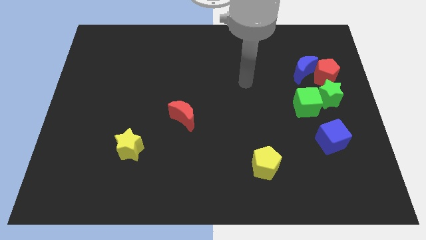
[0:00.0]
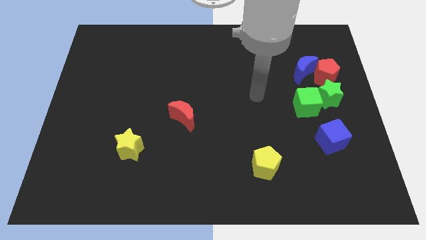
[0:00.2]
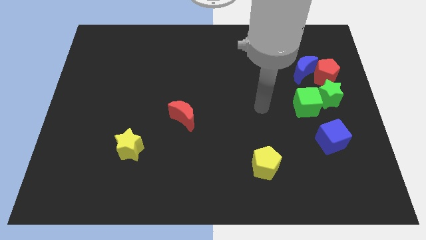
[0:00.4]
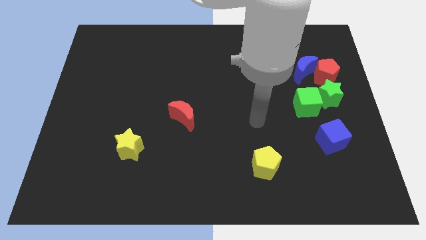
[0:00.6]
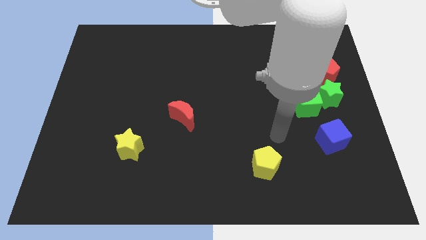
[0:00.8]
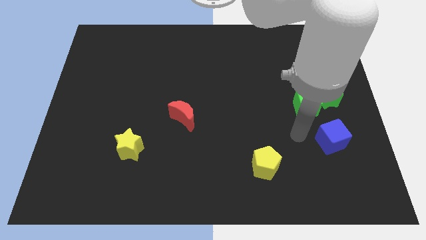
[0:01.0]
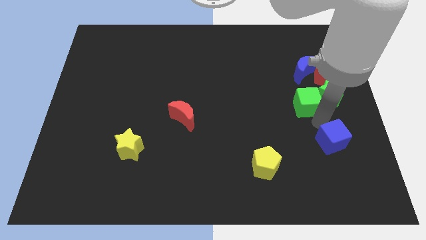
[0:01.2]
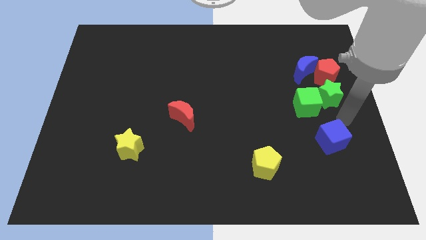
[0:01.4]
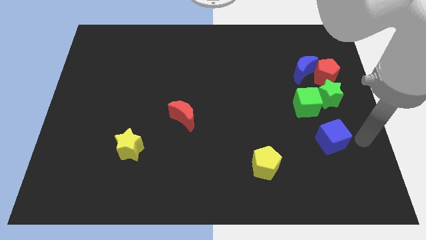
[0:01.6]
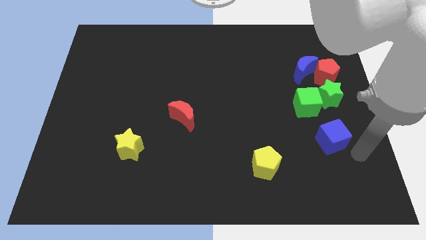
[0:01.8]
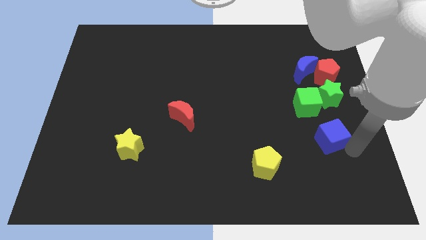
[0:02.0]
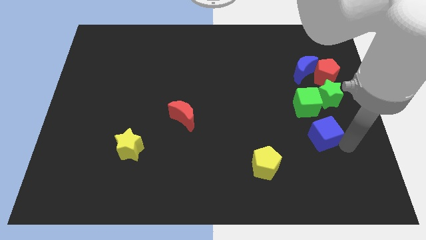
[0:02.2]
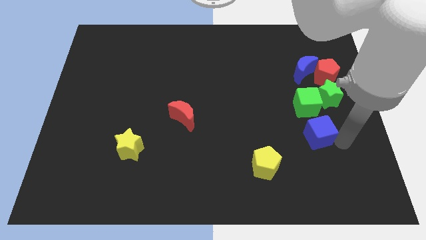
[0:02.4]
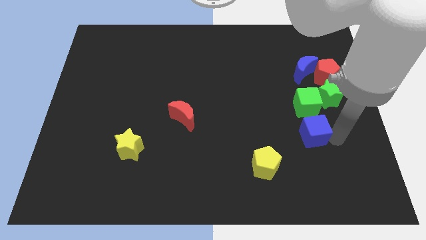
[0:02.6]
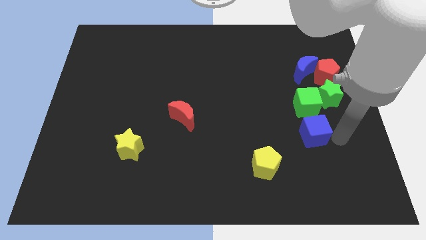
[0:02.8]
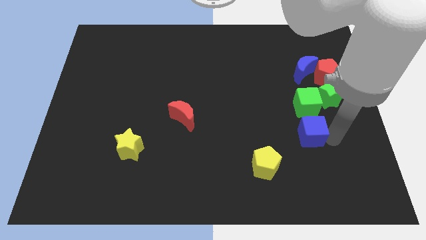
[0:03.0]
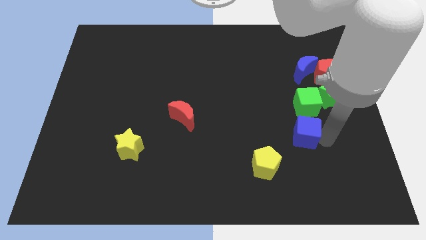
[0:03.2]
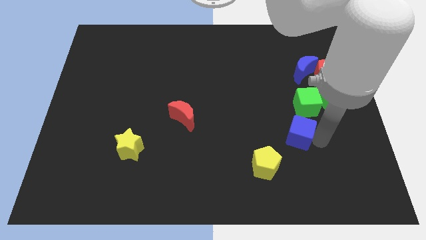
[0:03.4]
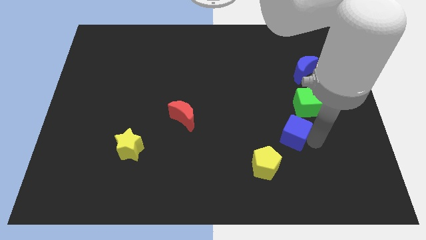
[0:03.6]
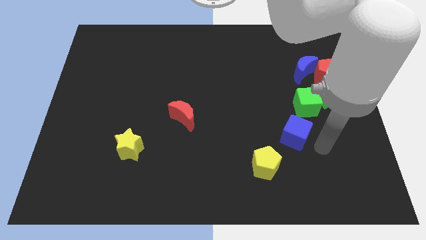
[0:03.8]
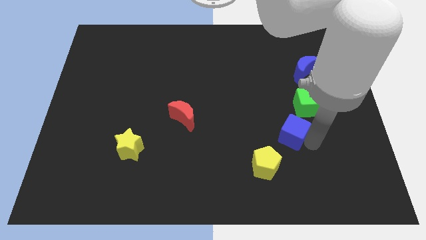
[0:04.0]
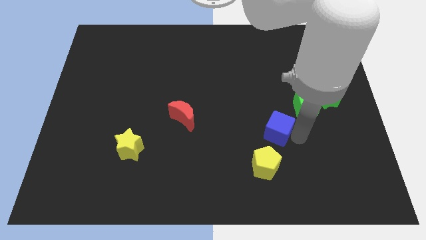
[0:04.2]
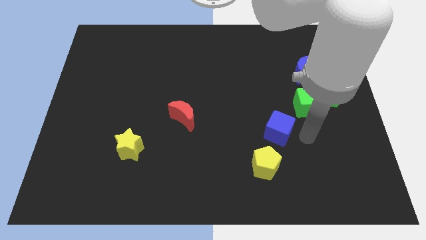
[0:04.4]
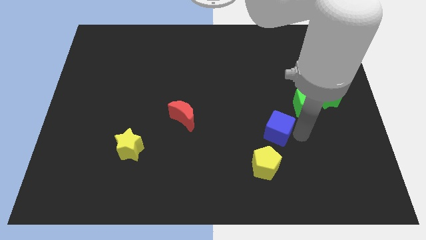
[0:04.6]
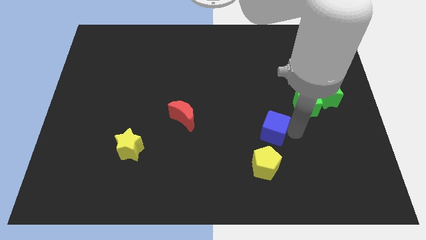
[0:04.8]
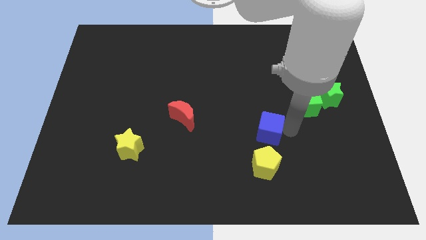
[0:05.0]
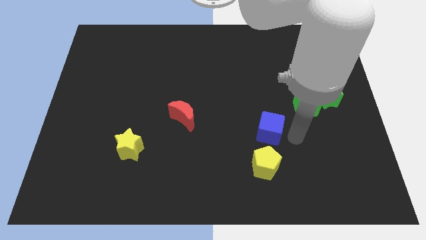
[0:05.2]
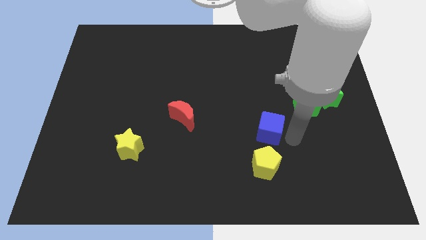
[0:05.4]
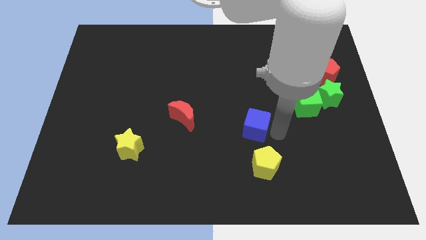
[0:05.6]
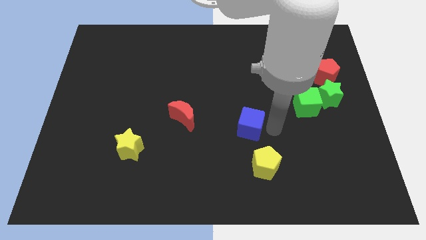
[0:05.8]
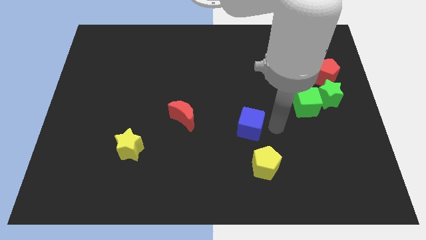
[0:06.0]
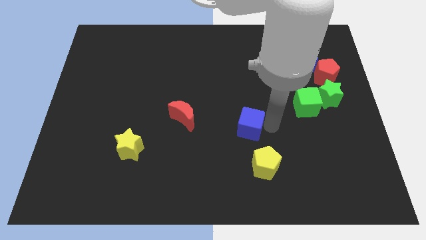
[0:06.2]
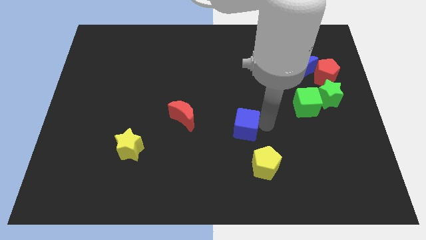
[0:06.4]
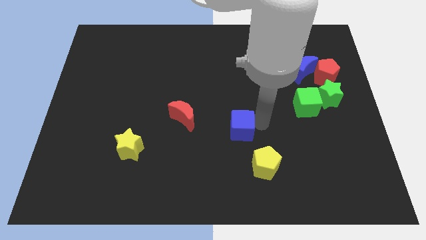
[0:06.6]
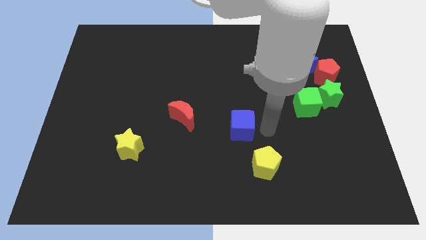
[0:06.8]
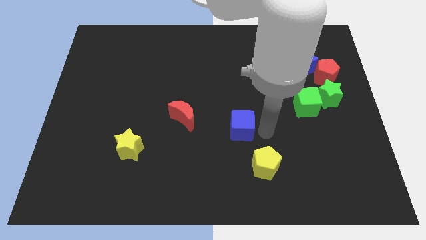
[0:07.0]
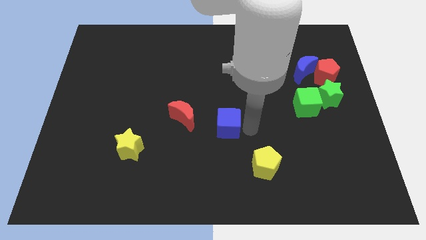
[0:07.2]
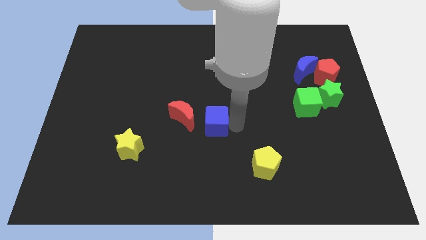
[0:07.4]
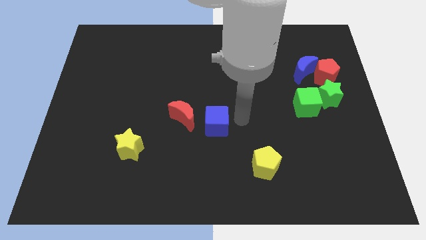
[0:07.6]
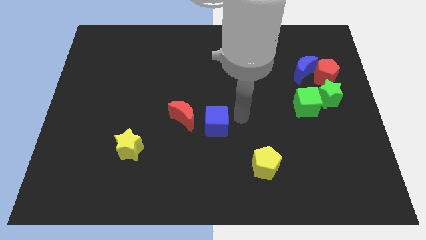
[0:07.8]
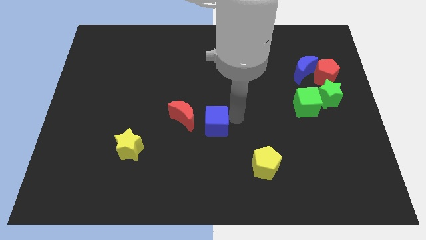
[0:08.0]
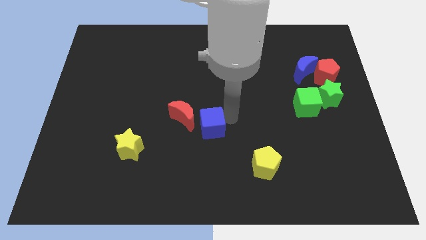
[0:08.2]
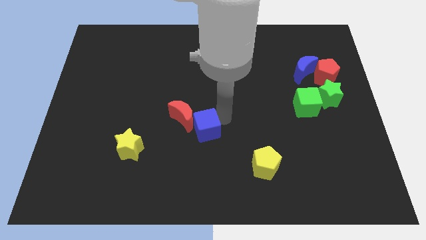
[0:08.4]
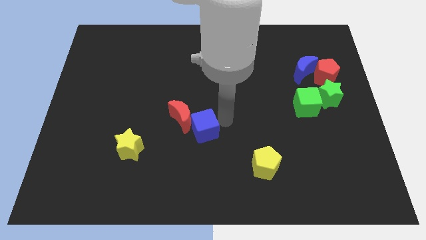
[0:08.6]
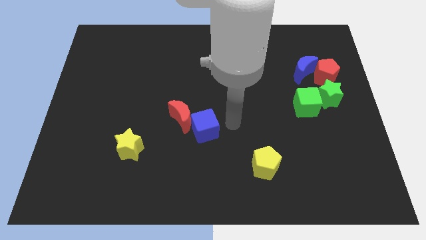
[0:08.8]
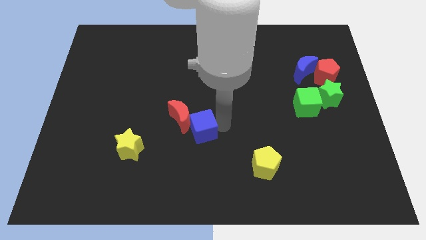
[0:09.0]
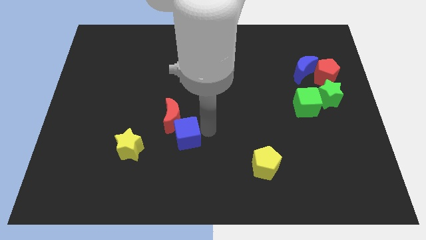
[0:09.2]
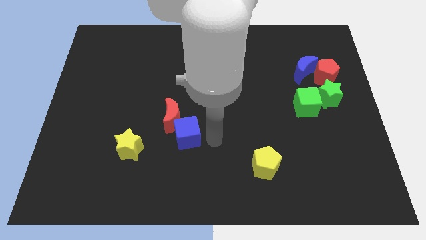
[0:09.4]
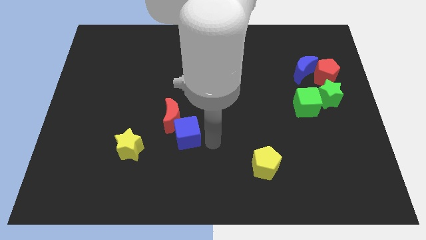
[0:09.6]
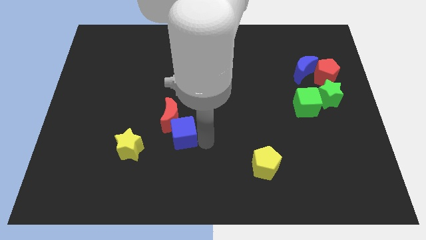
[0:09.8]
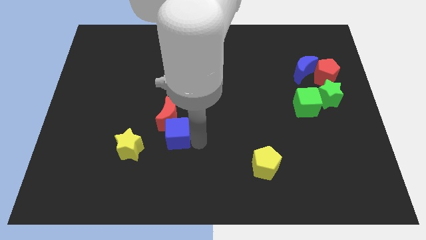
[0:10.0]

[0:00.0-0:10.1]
slide the blue cube to the top right side of the yellow star
